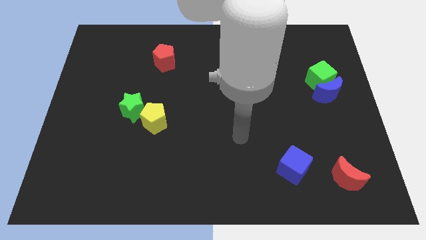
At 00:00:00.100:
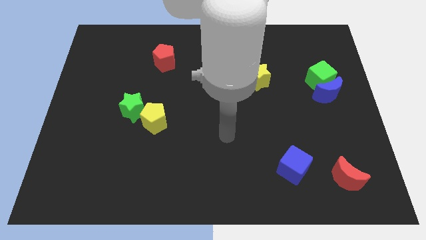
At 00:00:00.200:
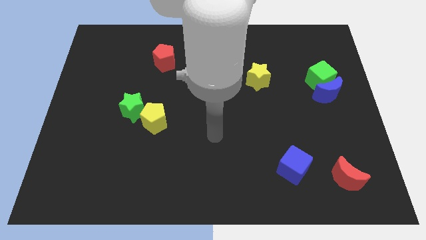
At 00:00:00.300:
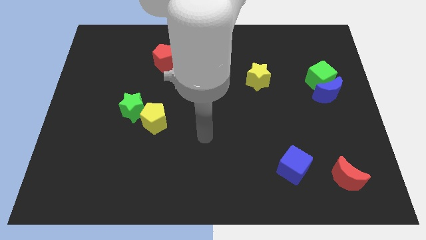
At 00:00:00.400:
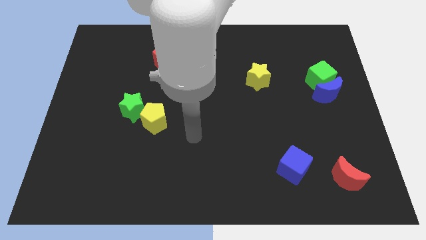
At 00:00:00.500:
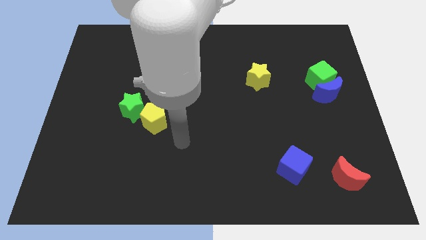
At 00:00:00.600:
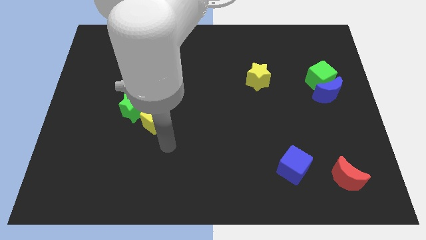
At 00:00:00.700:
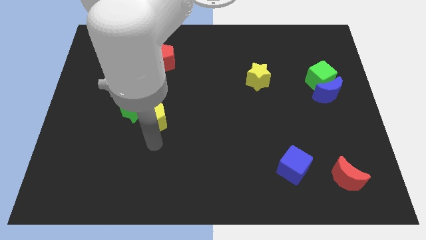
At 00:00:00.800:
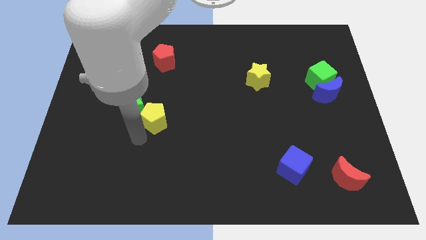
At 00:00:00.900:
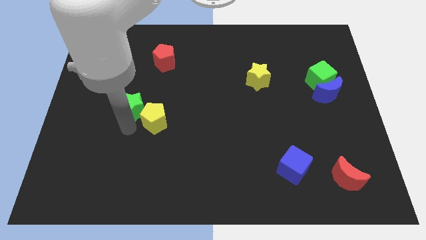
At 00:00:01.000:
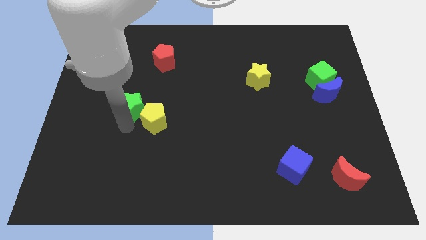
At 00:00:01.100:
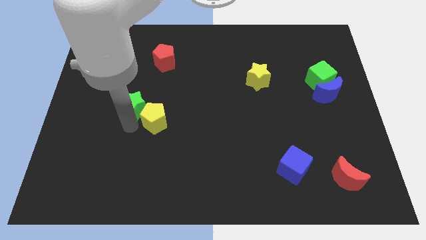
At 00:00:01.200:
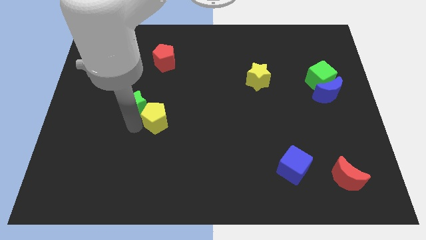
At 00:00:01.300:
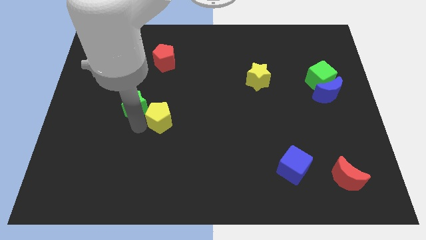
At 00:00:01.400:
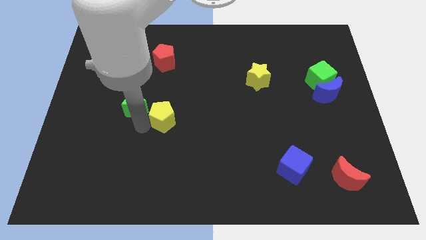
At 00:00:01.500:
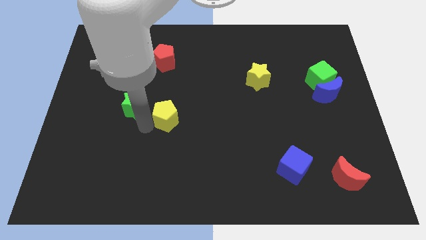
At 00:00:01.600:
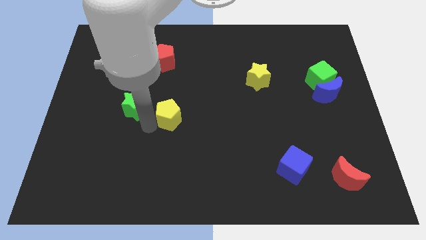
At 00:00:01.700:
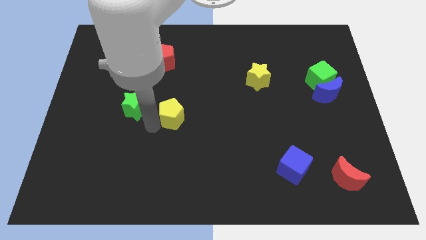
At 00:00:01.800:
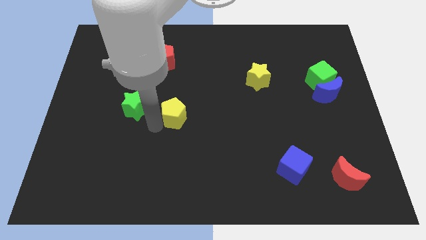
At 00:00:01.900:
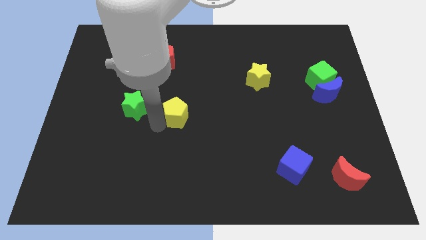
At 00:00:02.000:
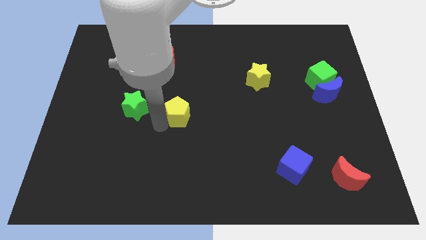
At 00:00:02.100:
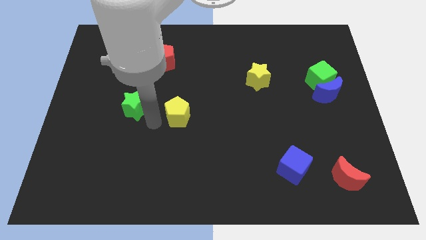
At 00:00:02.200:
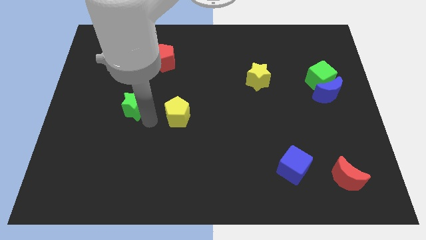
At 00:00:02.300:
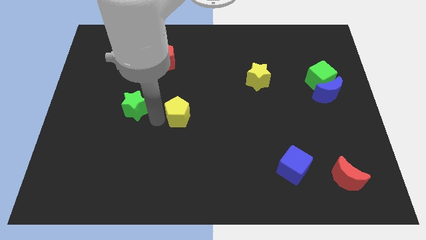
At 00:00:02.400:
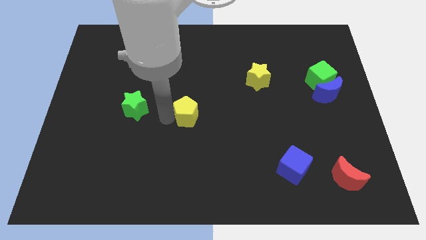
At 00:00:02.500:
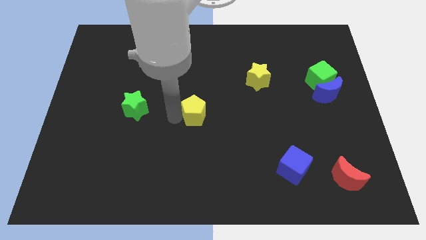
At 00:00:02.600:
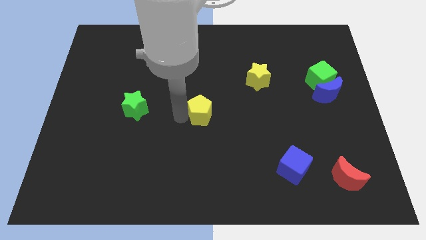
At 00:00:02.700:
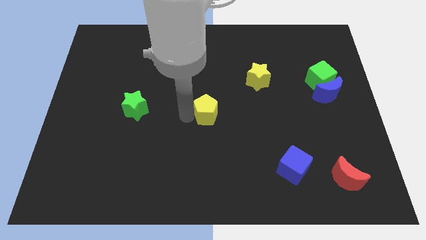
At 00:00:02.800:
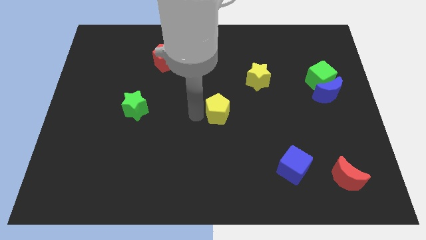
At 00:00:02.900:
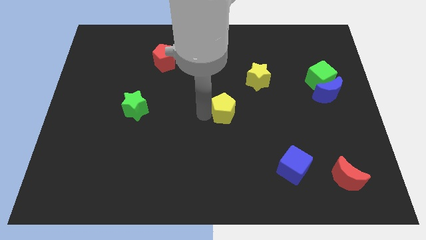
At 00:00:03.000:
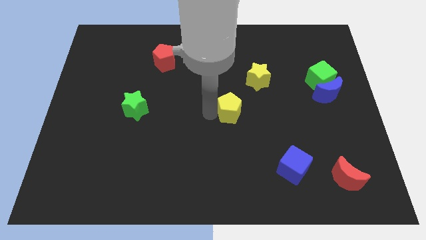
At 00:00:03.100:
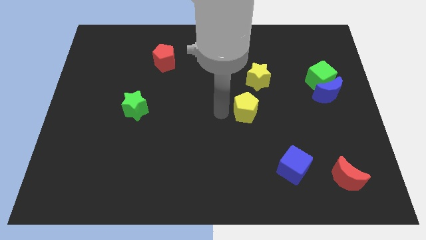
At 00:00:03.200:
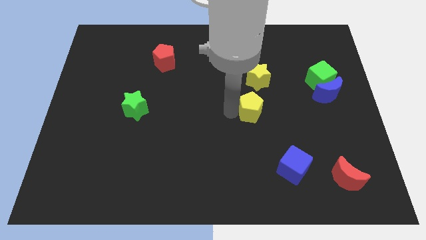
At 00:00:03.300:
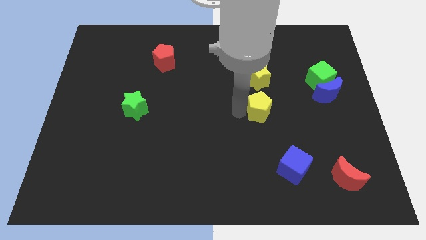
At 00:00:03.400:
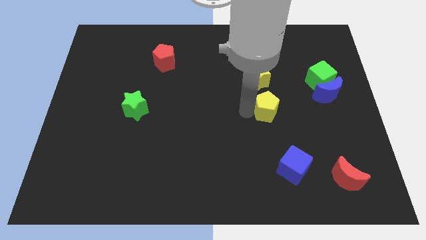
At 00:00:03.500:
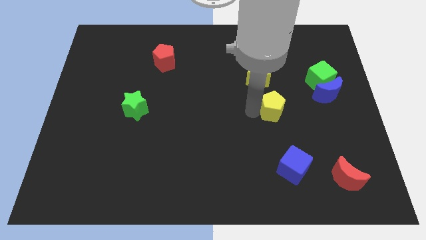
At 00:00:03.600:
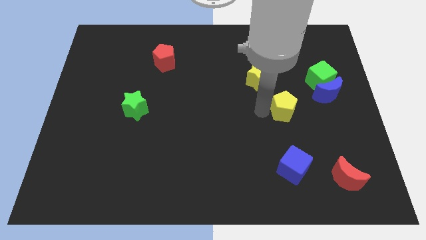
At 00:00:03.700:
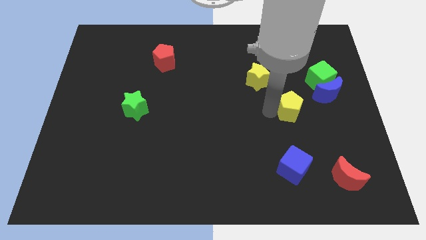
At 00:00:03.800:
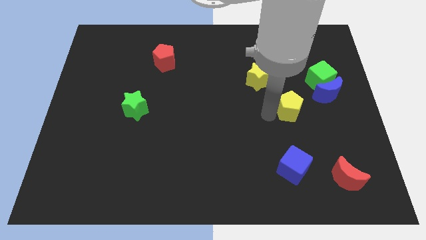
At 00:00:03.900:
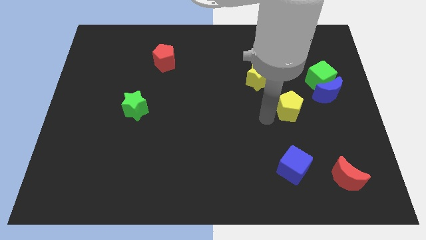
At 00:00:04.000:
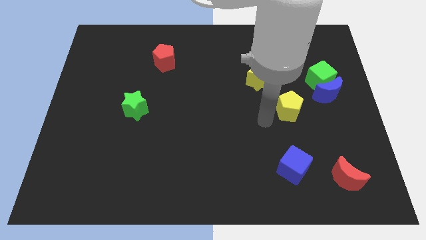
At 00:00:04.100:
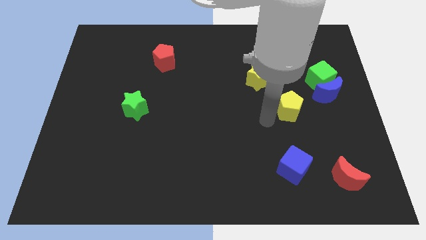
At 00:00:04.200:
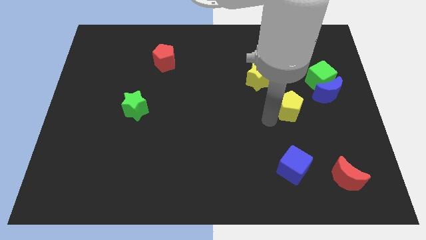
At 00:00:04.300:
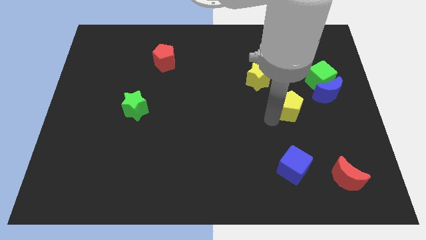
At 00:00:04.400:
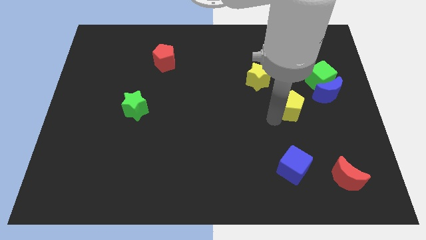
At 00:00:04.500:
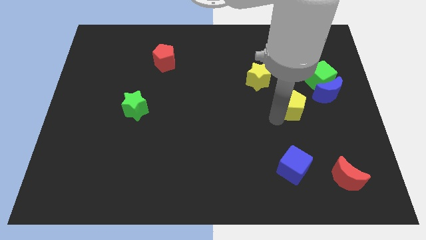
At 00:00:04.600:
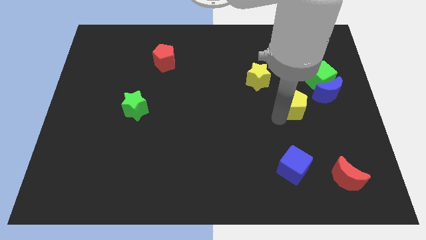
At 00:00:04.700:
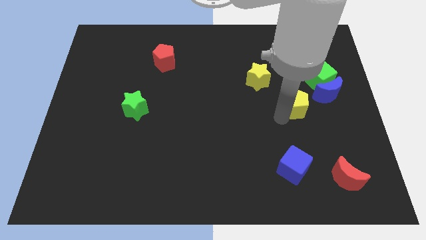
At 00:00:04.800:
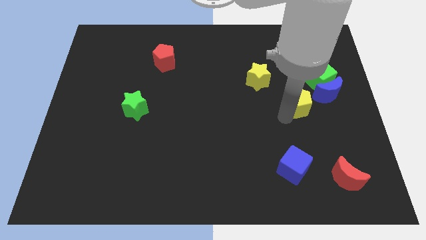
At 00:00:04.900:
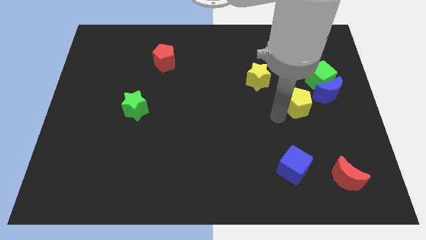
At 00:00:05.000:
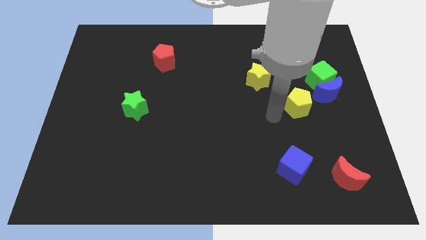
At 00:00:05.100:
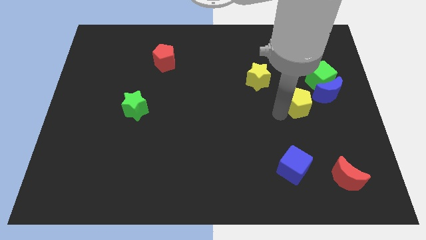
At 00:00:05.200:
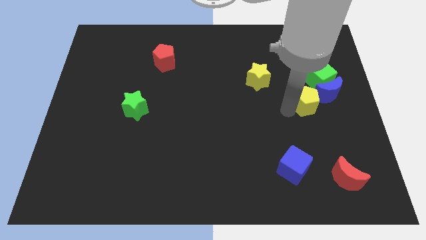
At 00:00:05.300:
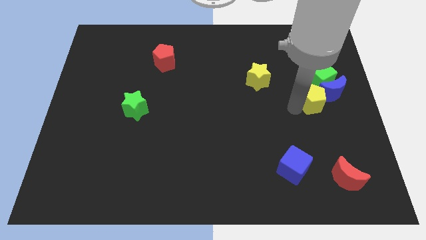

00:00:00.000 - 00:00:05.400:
push the yellow pentagon next to the blue moon

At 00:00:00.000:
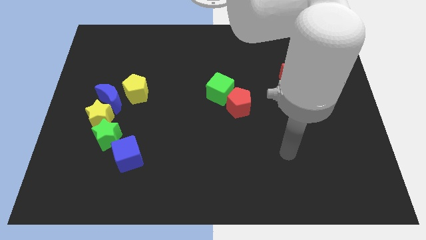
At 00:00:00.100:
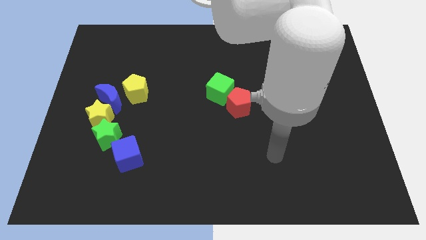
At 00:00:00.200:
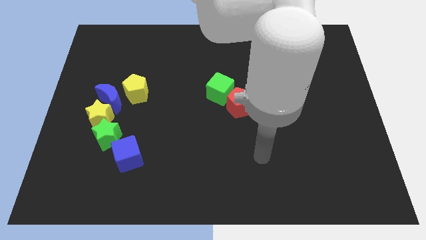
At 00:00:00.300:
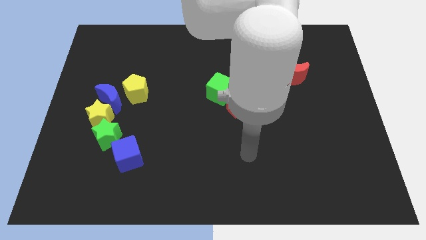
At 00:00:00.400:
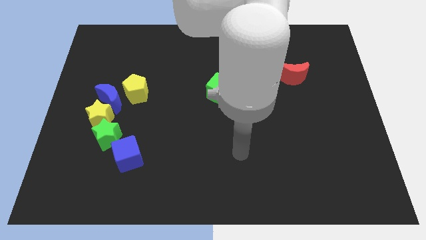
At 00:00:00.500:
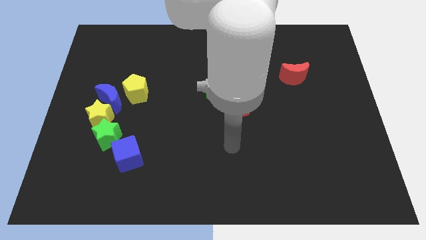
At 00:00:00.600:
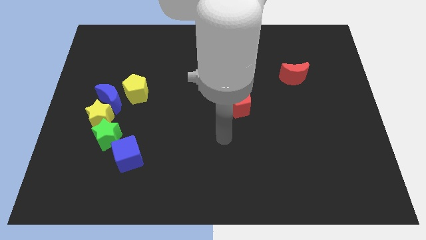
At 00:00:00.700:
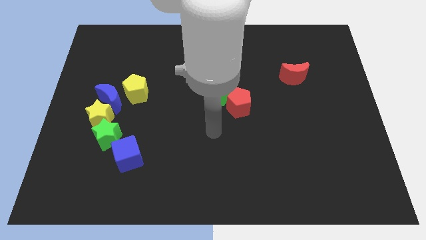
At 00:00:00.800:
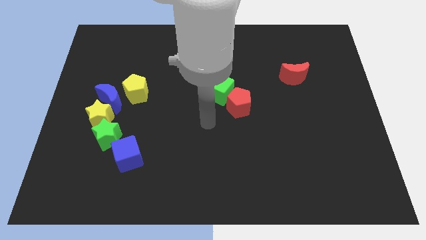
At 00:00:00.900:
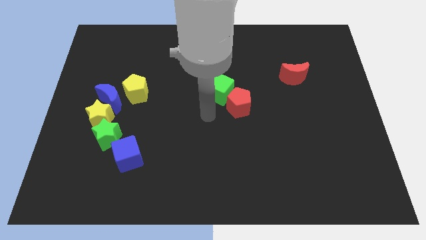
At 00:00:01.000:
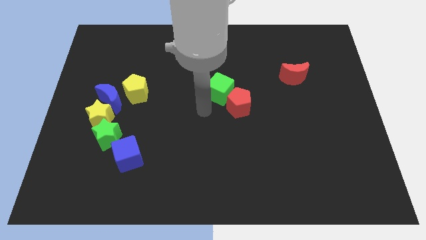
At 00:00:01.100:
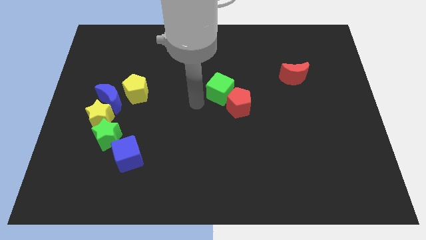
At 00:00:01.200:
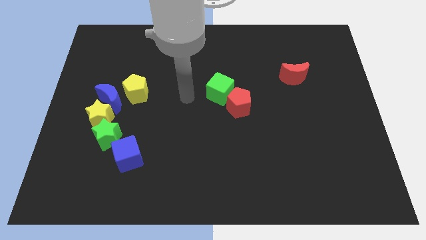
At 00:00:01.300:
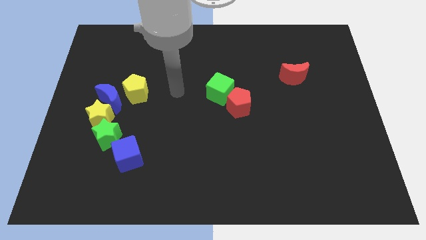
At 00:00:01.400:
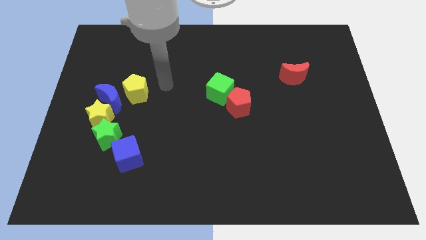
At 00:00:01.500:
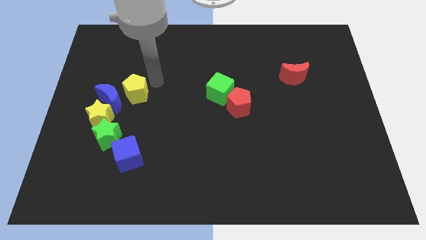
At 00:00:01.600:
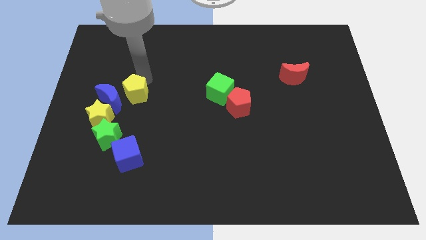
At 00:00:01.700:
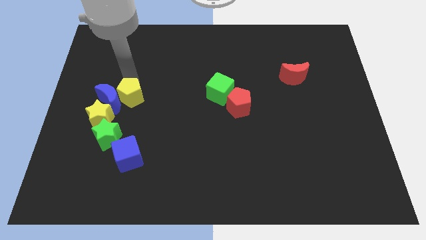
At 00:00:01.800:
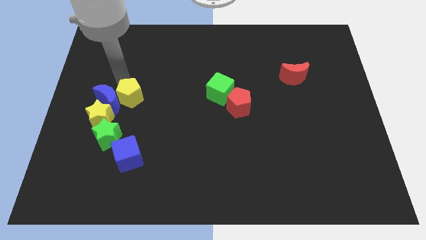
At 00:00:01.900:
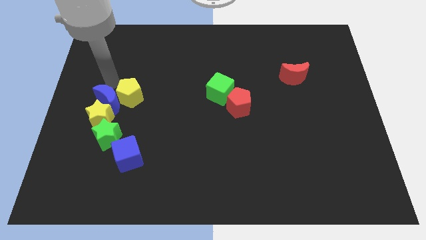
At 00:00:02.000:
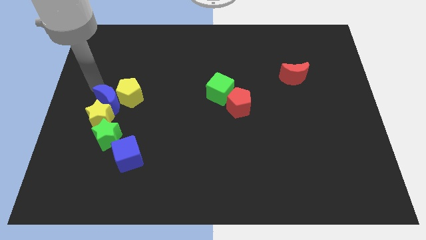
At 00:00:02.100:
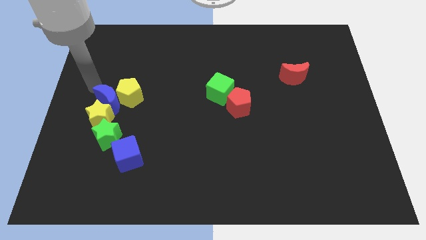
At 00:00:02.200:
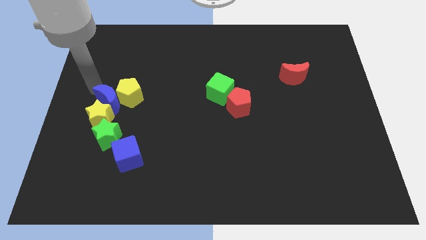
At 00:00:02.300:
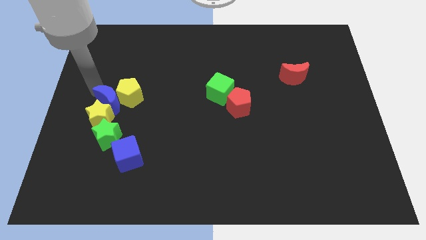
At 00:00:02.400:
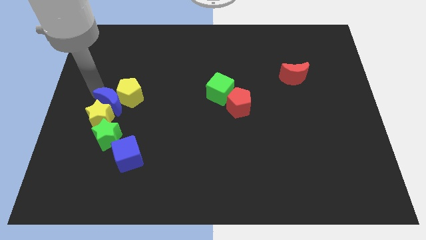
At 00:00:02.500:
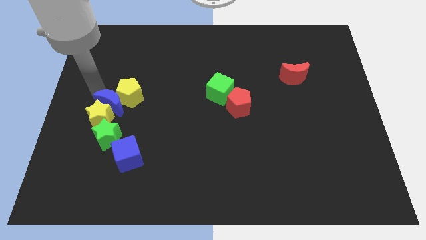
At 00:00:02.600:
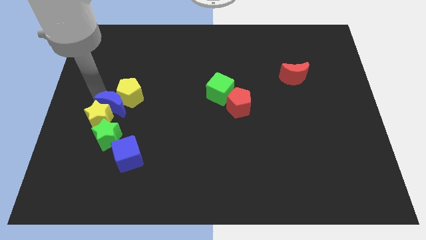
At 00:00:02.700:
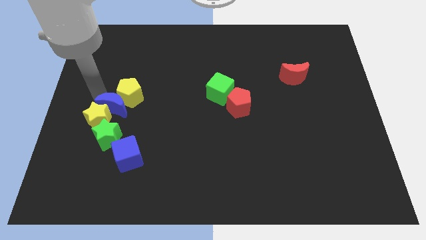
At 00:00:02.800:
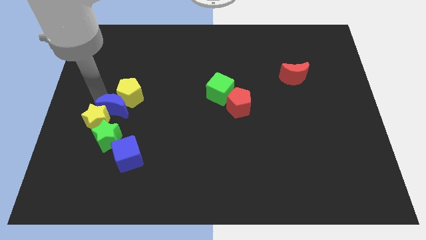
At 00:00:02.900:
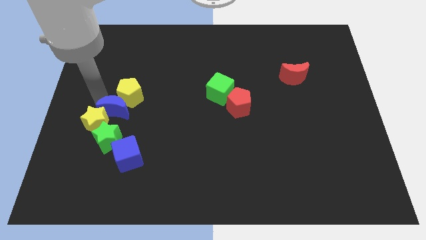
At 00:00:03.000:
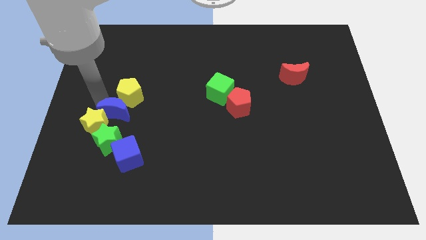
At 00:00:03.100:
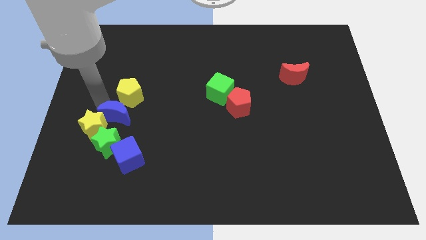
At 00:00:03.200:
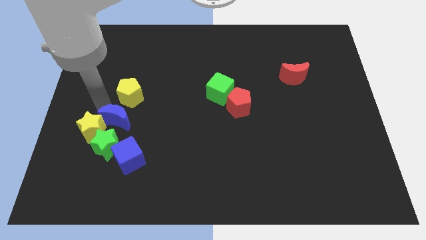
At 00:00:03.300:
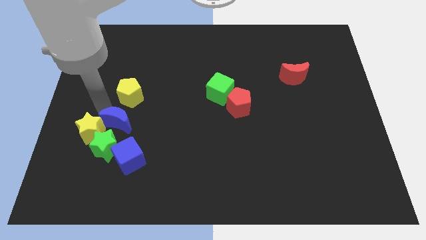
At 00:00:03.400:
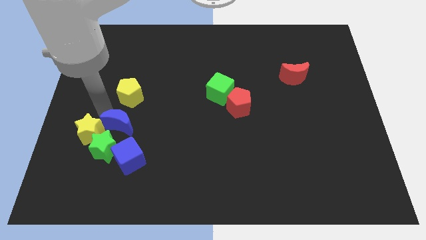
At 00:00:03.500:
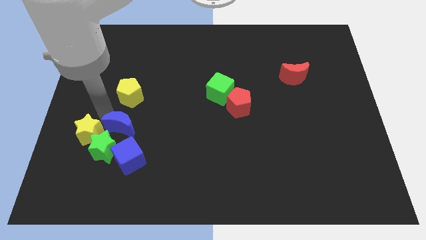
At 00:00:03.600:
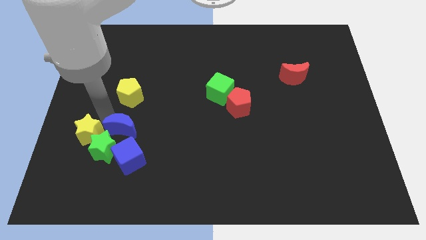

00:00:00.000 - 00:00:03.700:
put the blue moon close to the green star
